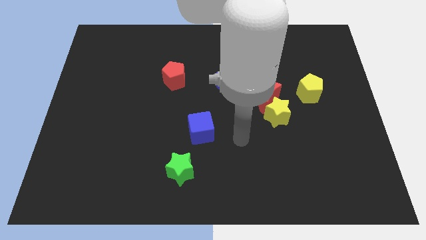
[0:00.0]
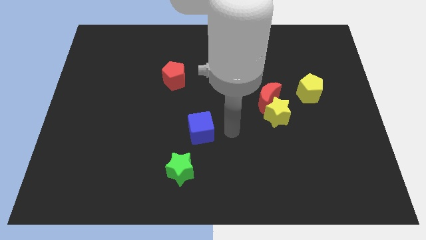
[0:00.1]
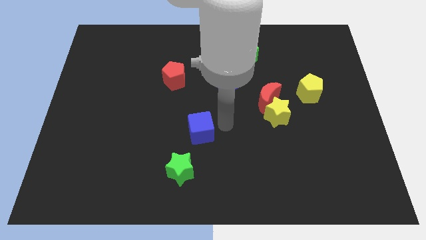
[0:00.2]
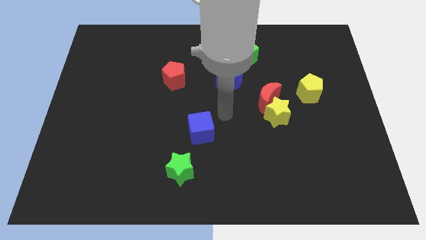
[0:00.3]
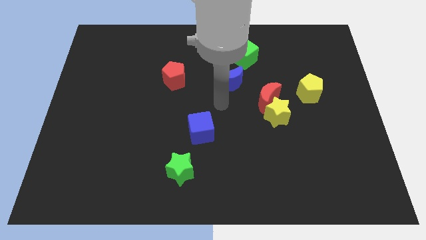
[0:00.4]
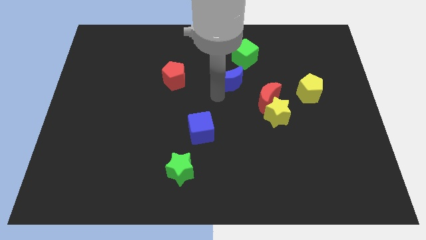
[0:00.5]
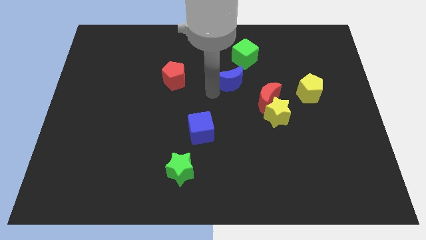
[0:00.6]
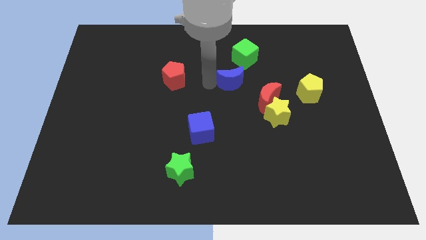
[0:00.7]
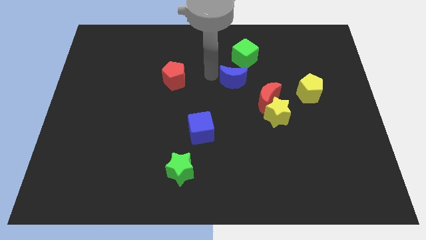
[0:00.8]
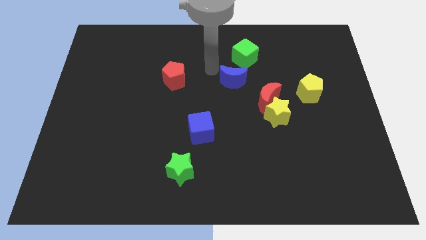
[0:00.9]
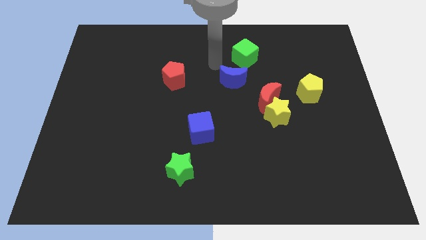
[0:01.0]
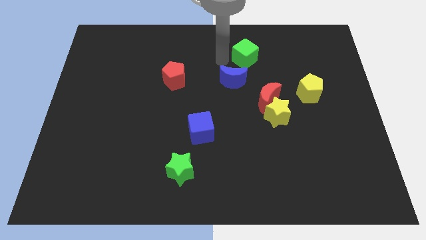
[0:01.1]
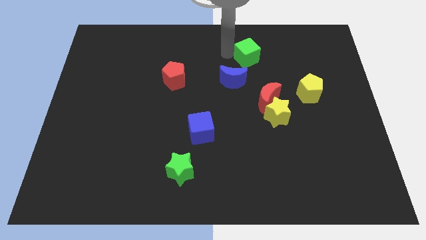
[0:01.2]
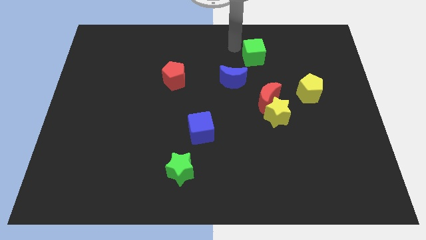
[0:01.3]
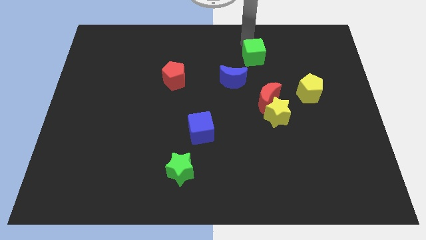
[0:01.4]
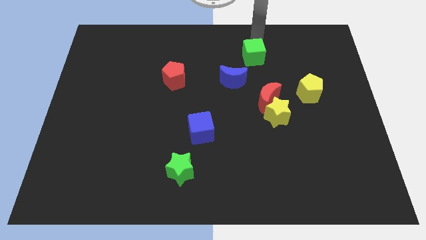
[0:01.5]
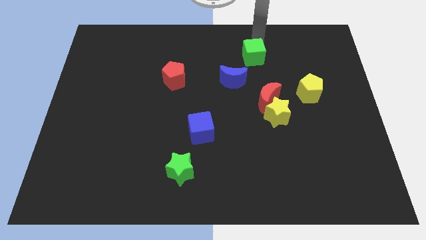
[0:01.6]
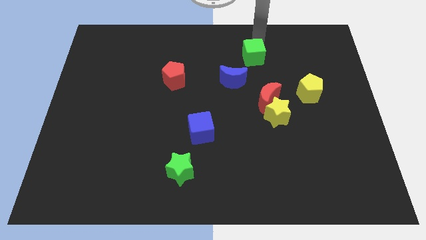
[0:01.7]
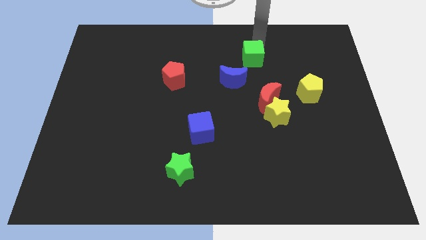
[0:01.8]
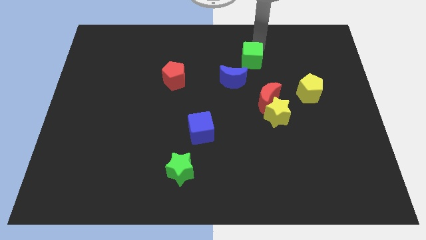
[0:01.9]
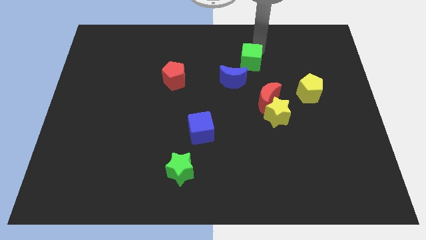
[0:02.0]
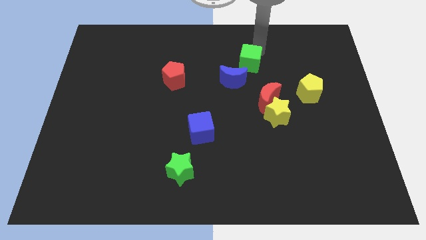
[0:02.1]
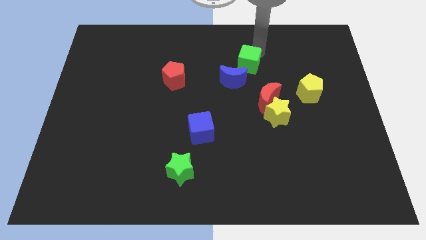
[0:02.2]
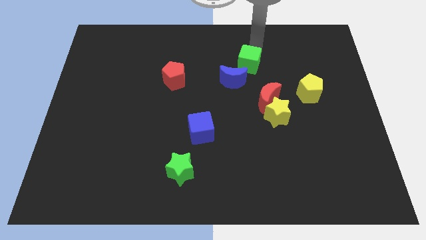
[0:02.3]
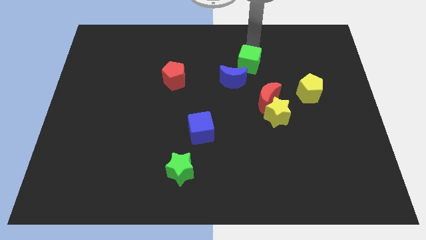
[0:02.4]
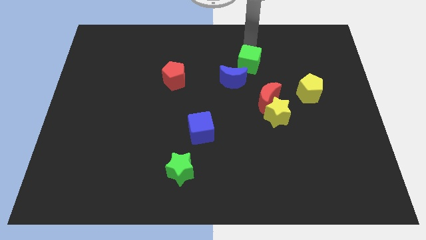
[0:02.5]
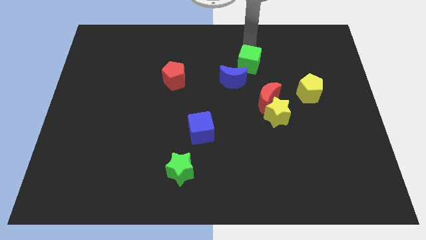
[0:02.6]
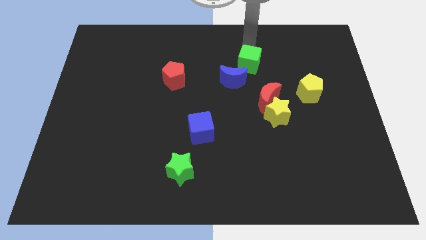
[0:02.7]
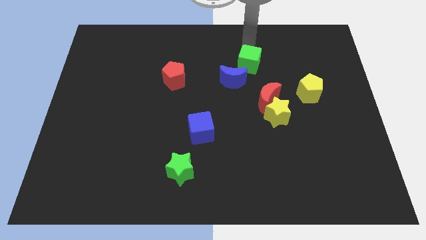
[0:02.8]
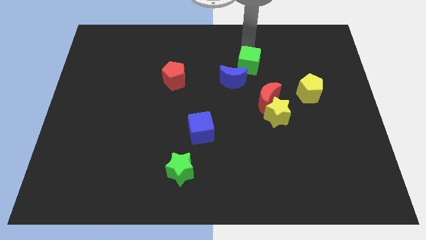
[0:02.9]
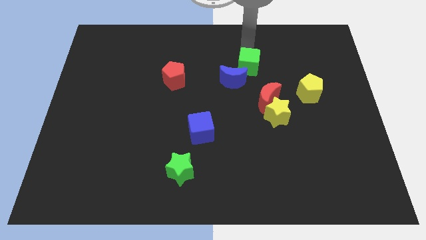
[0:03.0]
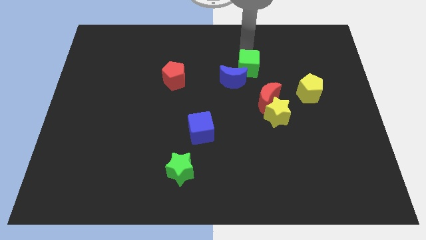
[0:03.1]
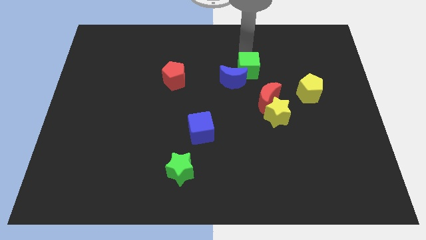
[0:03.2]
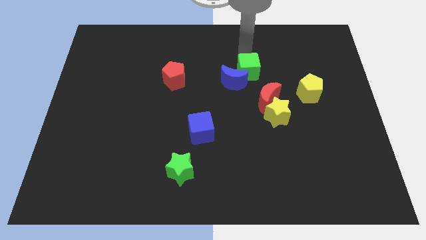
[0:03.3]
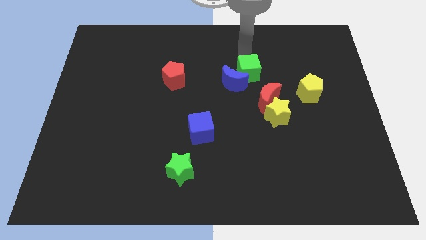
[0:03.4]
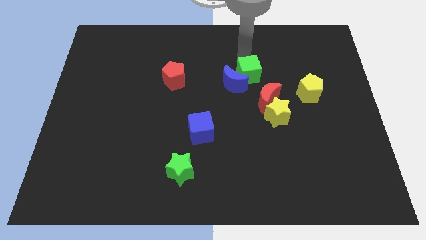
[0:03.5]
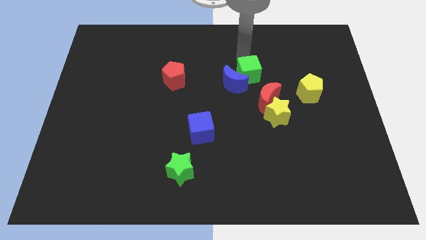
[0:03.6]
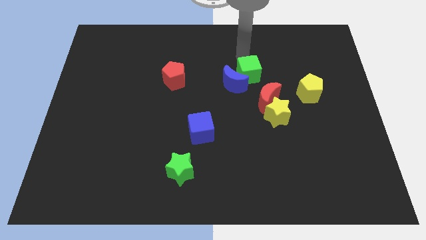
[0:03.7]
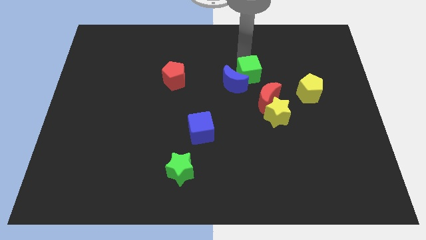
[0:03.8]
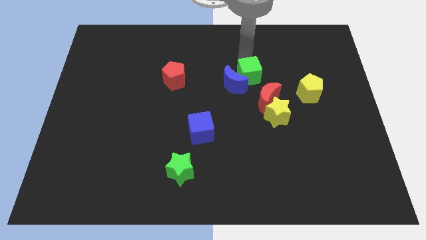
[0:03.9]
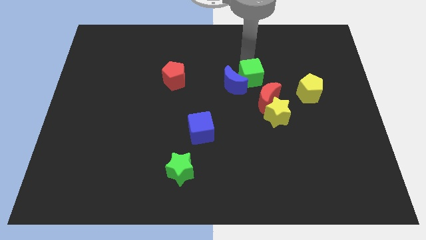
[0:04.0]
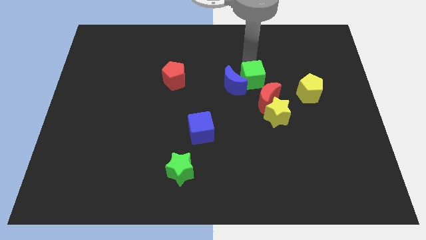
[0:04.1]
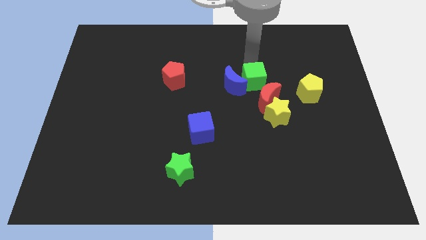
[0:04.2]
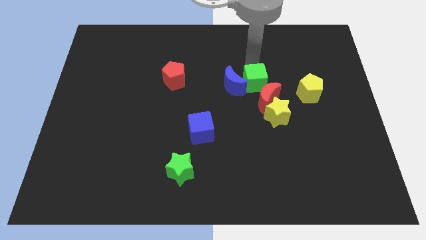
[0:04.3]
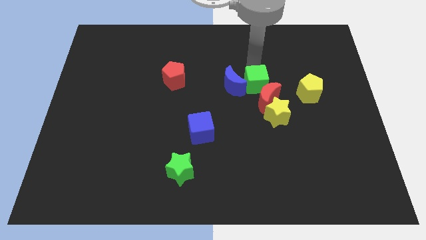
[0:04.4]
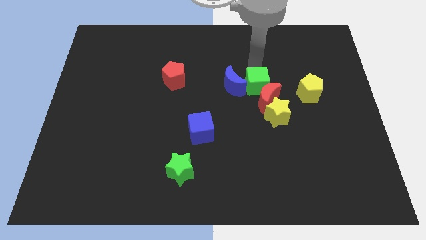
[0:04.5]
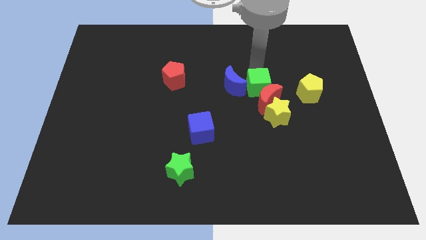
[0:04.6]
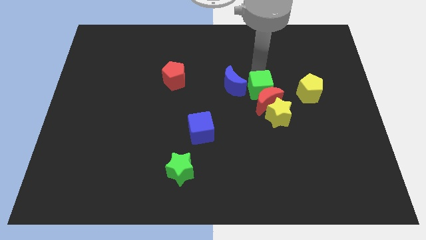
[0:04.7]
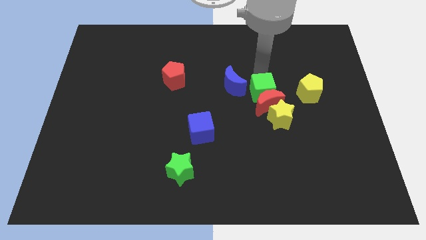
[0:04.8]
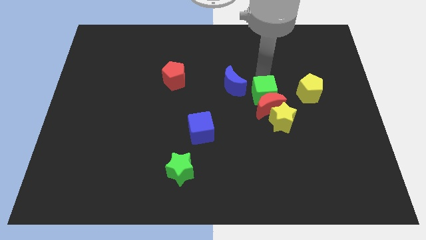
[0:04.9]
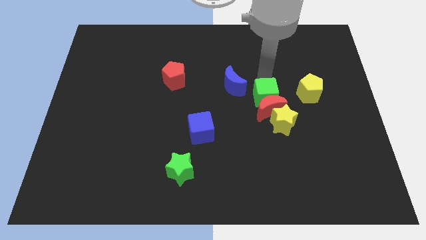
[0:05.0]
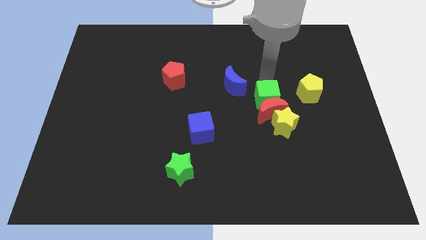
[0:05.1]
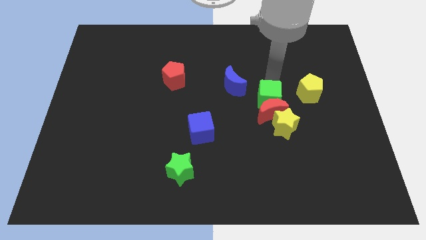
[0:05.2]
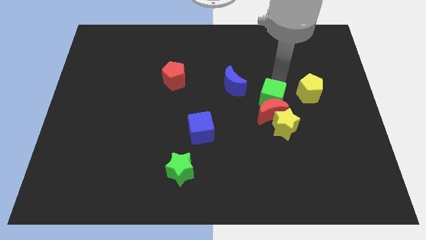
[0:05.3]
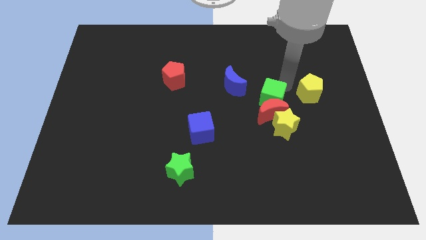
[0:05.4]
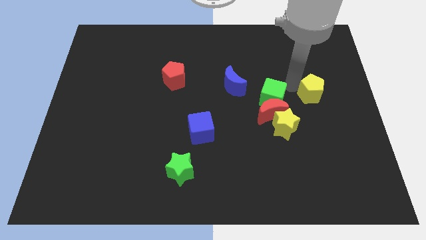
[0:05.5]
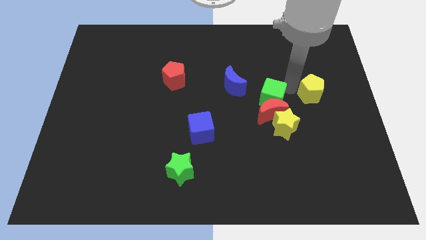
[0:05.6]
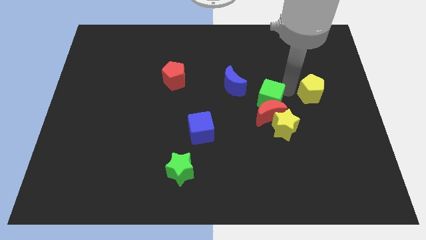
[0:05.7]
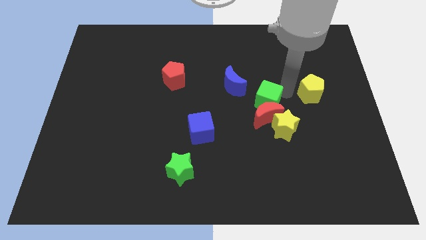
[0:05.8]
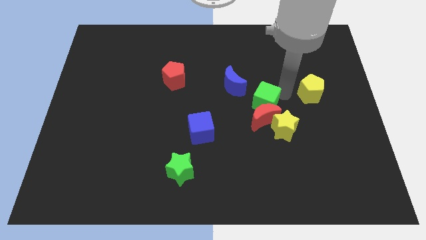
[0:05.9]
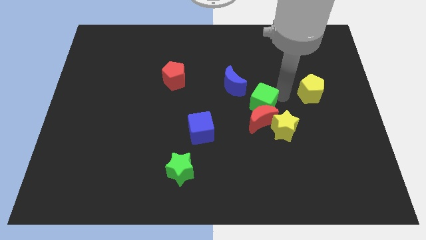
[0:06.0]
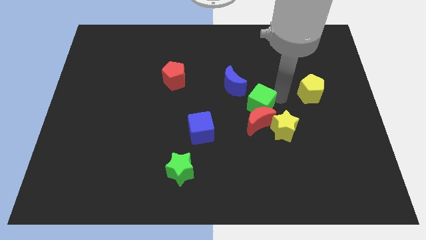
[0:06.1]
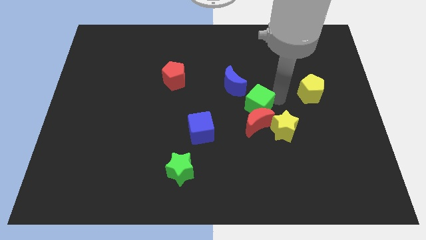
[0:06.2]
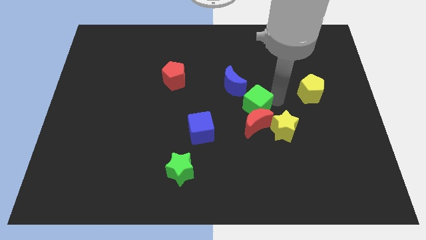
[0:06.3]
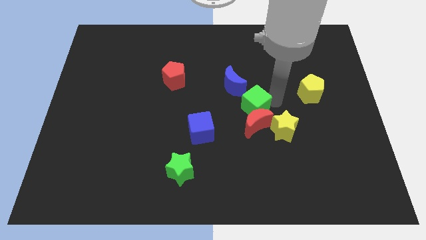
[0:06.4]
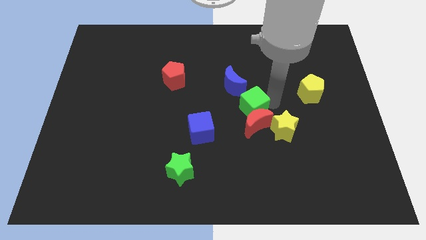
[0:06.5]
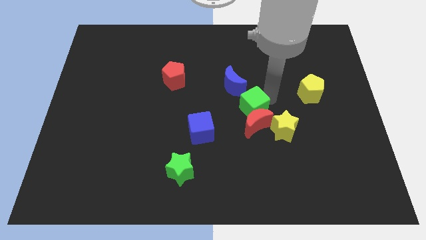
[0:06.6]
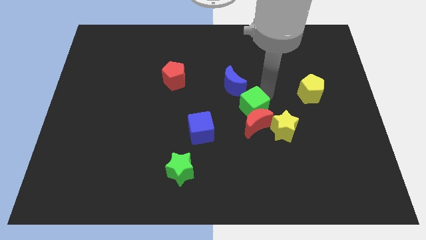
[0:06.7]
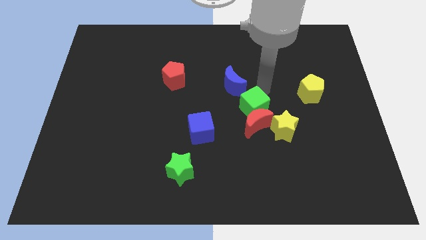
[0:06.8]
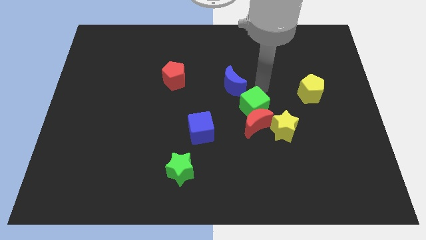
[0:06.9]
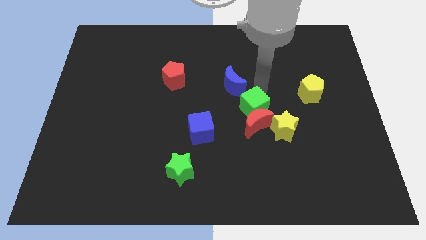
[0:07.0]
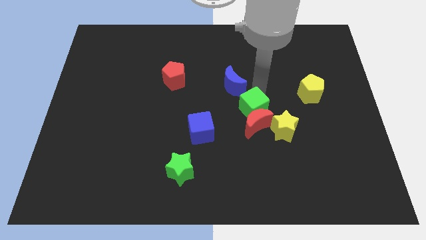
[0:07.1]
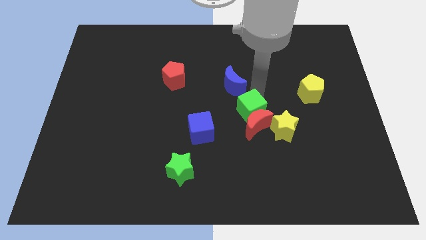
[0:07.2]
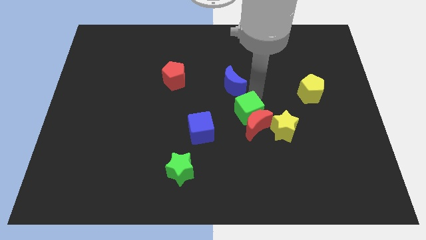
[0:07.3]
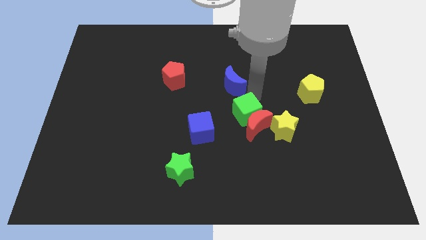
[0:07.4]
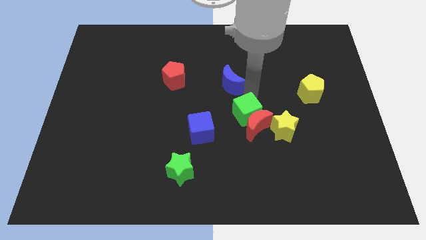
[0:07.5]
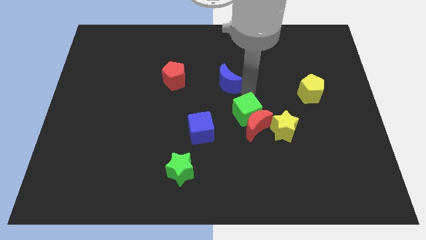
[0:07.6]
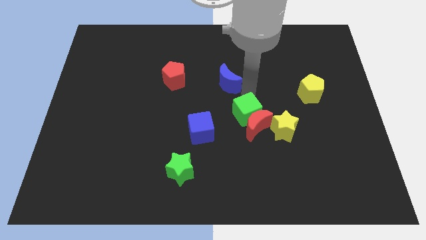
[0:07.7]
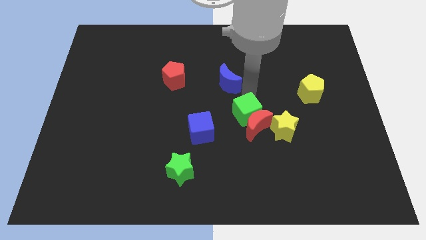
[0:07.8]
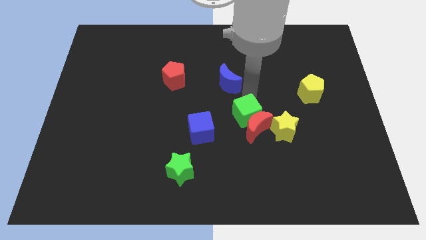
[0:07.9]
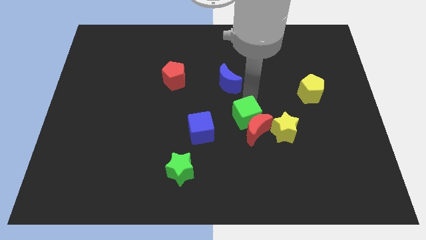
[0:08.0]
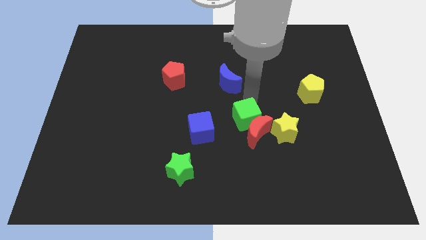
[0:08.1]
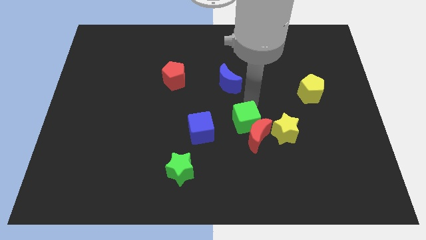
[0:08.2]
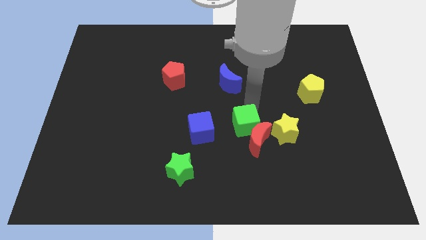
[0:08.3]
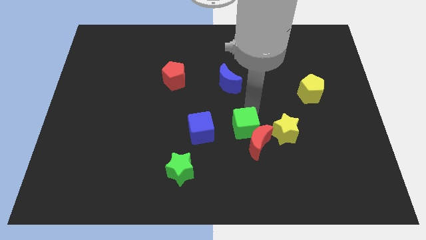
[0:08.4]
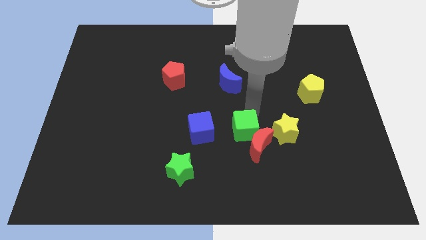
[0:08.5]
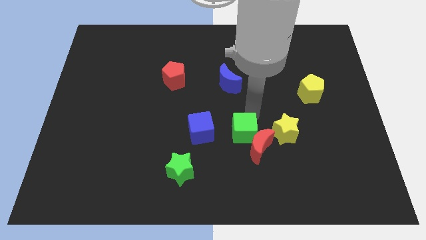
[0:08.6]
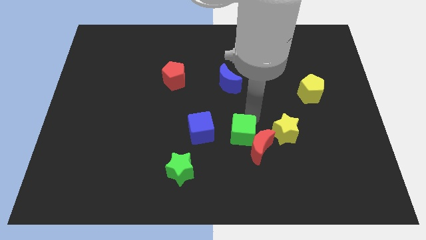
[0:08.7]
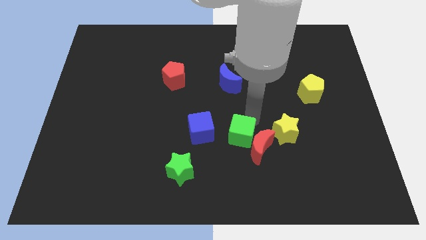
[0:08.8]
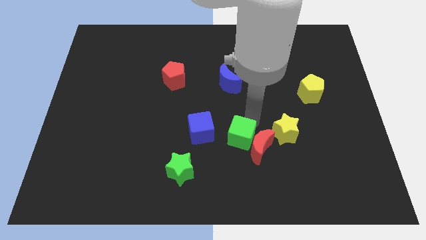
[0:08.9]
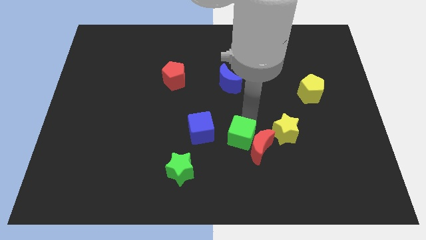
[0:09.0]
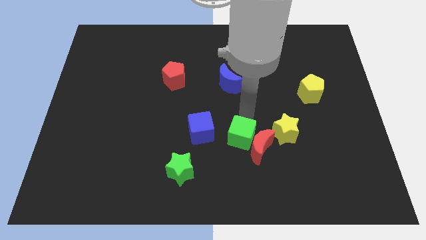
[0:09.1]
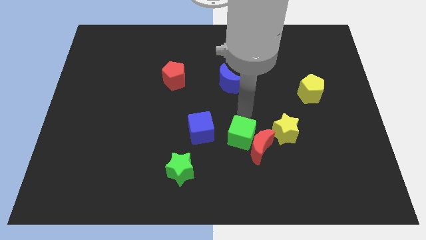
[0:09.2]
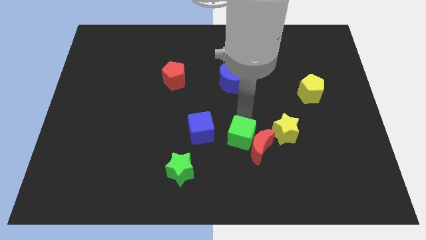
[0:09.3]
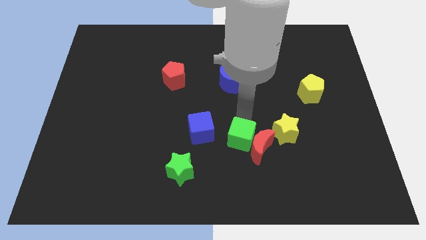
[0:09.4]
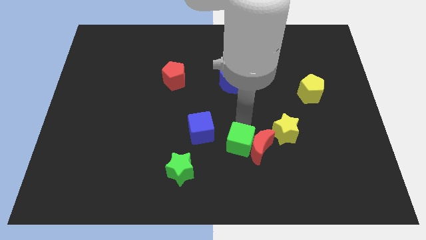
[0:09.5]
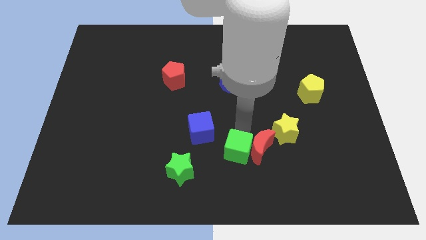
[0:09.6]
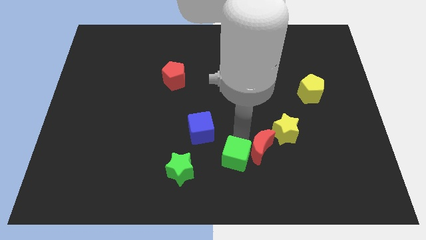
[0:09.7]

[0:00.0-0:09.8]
push the green cube to the right side of the green star
